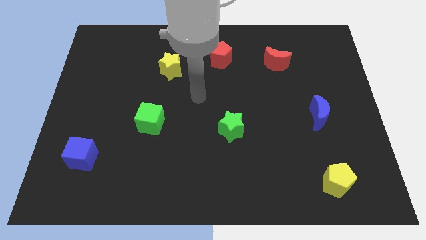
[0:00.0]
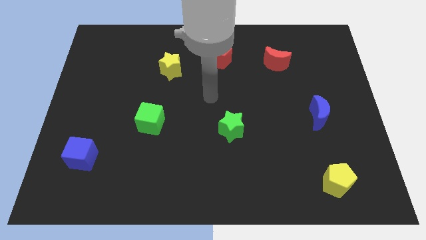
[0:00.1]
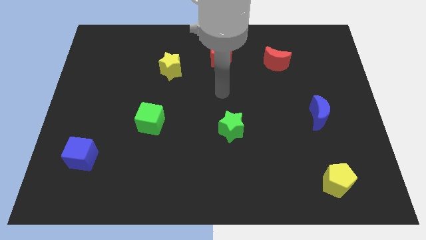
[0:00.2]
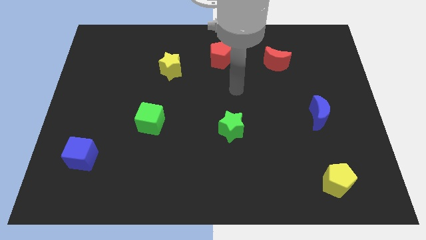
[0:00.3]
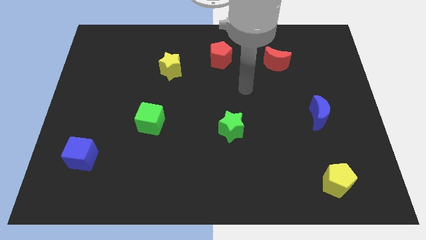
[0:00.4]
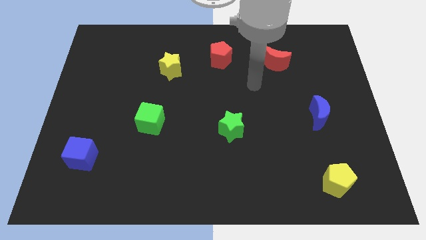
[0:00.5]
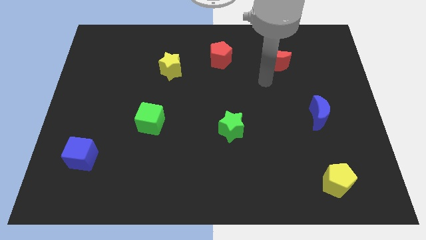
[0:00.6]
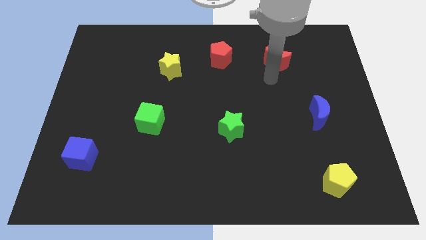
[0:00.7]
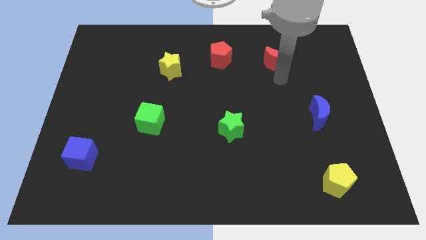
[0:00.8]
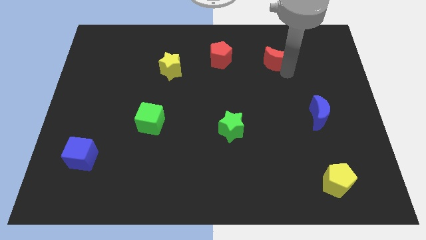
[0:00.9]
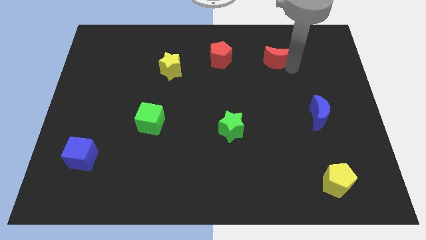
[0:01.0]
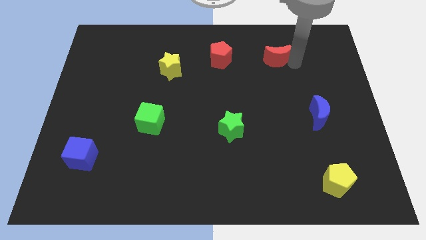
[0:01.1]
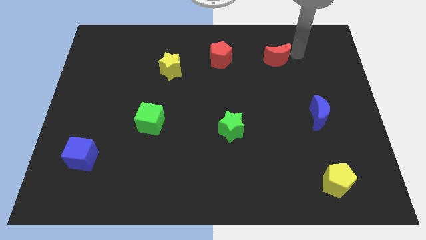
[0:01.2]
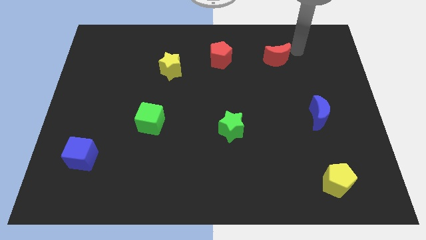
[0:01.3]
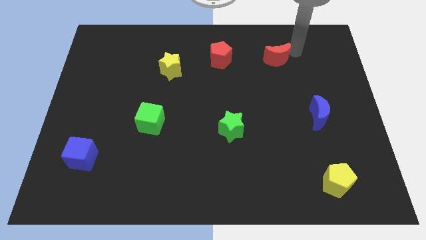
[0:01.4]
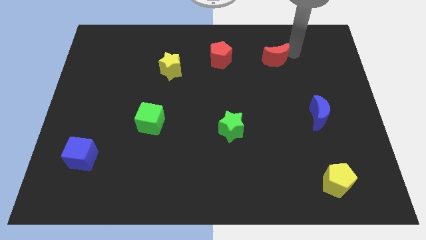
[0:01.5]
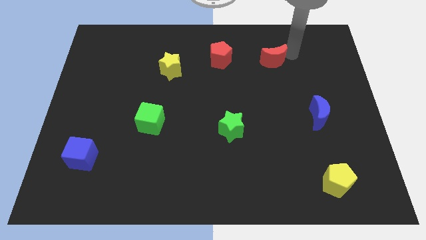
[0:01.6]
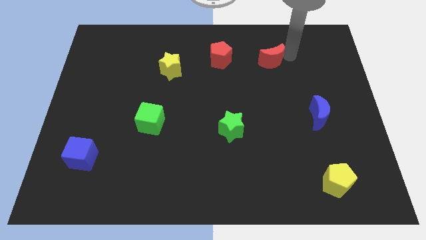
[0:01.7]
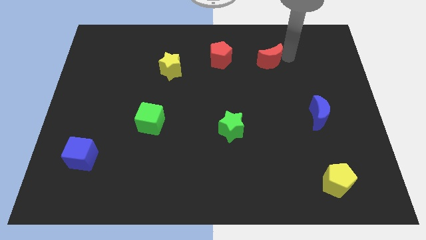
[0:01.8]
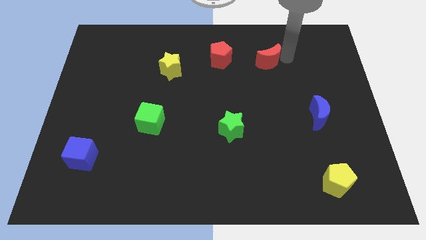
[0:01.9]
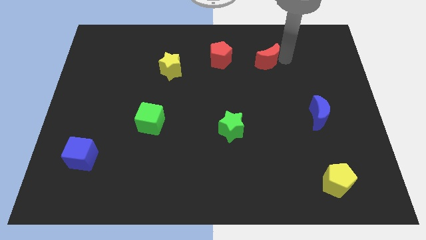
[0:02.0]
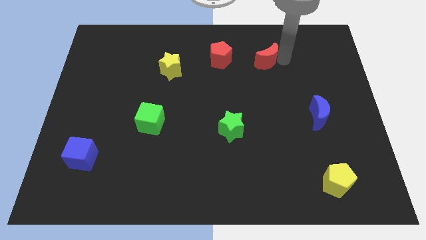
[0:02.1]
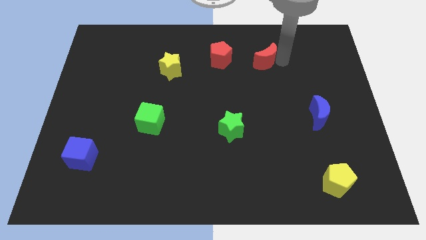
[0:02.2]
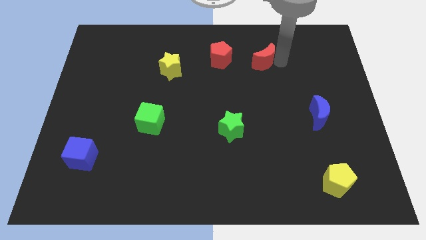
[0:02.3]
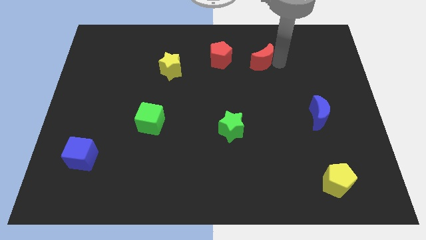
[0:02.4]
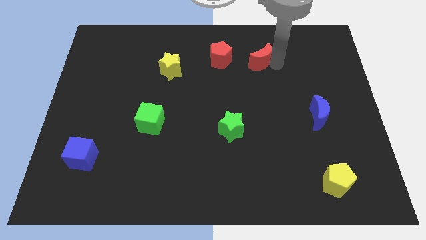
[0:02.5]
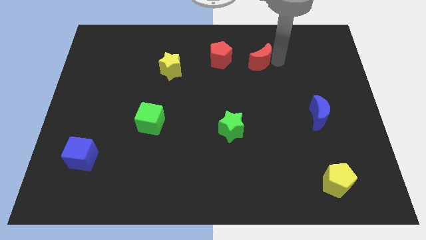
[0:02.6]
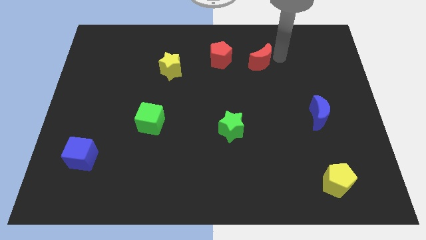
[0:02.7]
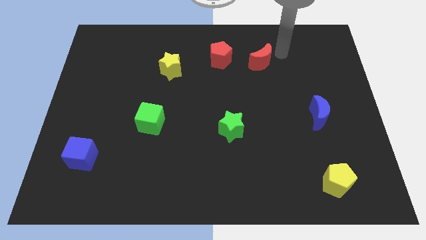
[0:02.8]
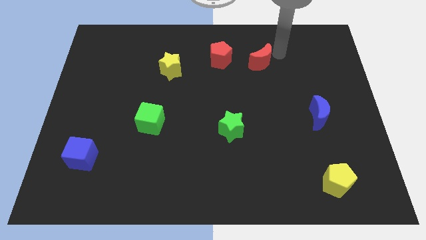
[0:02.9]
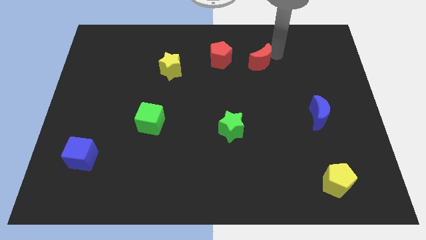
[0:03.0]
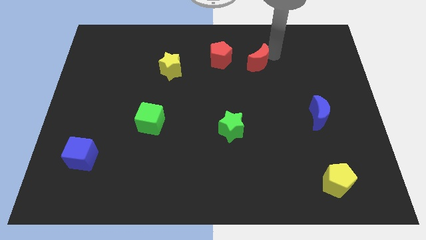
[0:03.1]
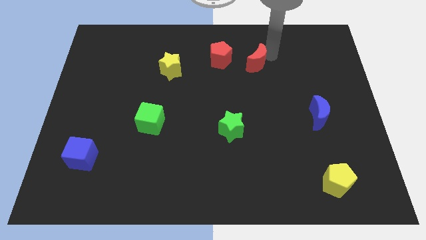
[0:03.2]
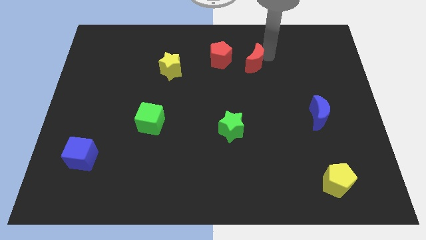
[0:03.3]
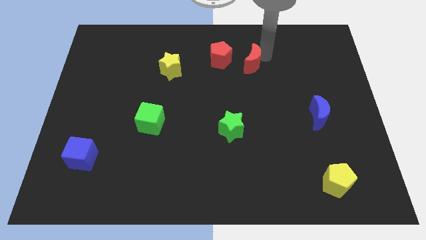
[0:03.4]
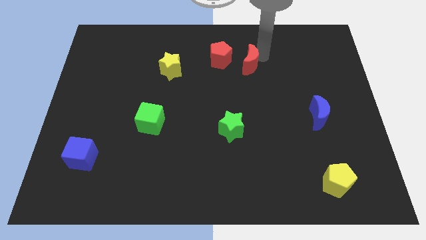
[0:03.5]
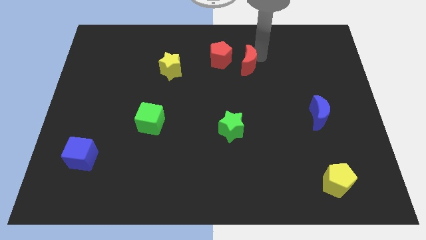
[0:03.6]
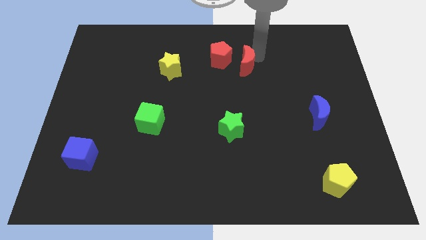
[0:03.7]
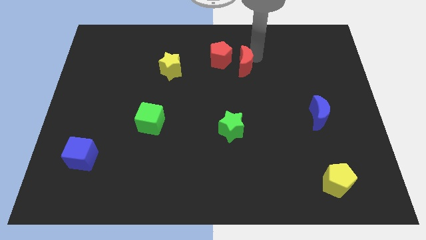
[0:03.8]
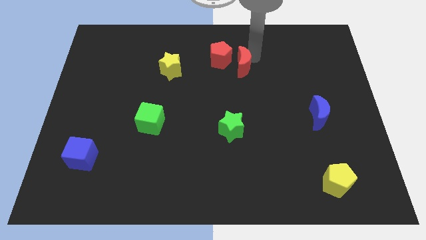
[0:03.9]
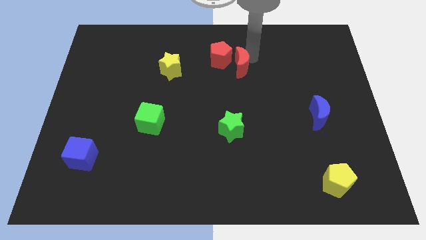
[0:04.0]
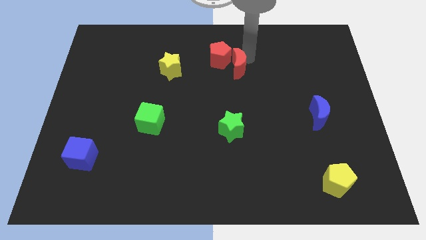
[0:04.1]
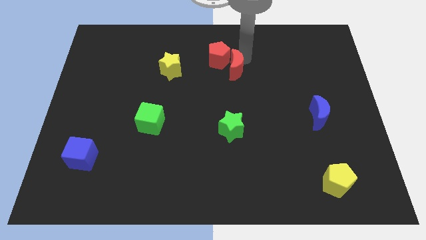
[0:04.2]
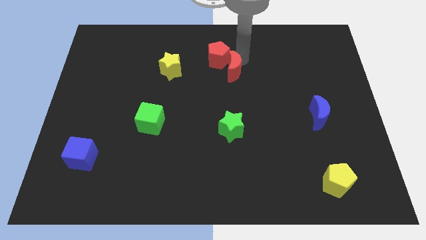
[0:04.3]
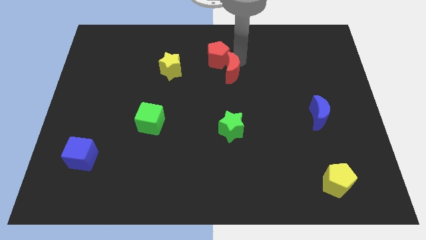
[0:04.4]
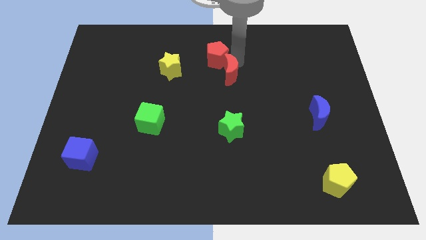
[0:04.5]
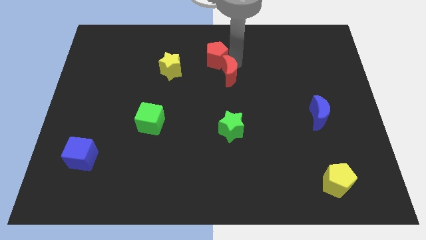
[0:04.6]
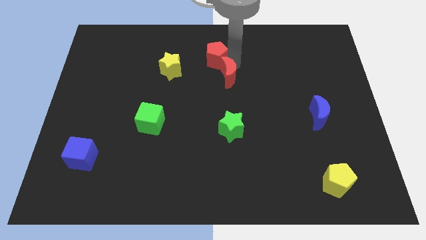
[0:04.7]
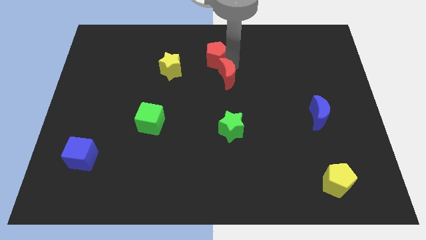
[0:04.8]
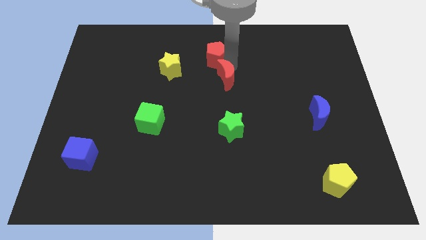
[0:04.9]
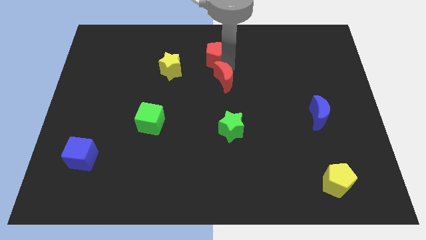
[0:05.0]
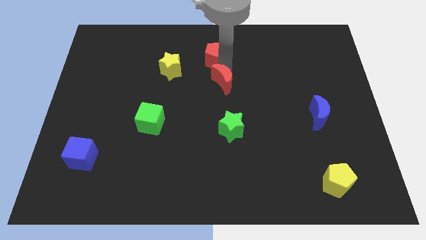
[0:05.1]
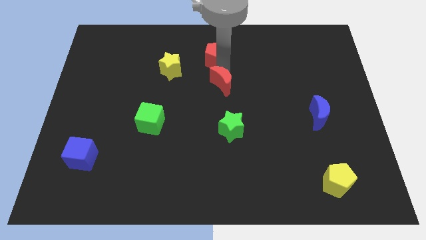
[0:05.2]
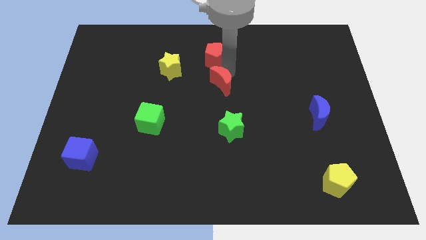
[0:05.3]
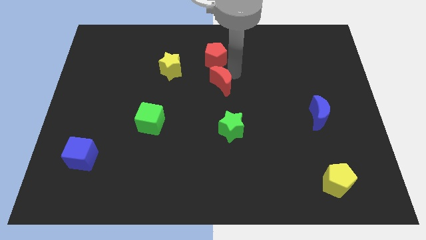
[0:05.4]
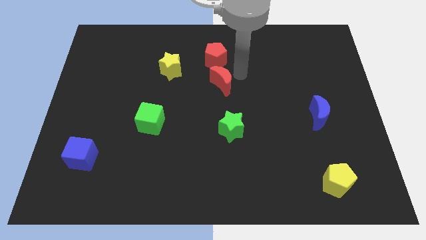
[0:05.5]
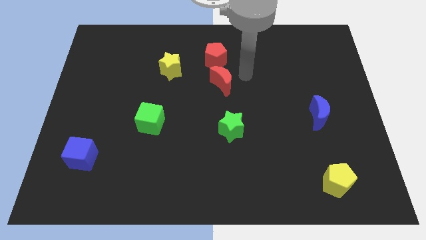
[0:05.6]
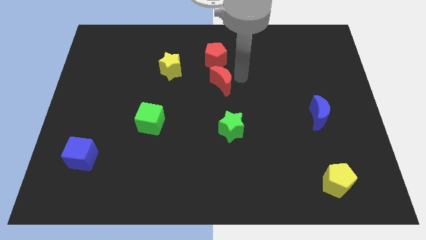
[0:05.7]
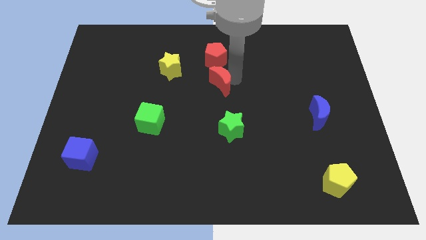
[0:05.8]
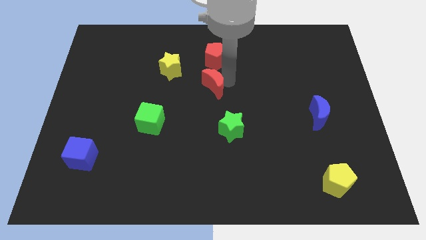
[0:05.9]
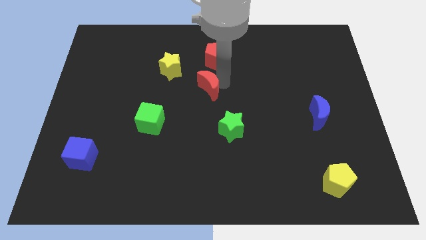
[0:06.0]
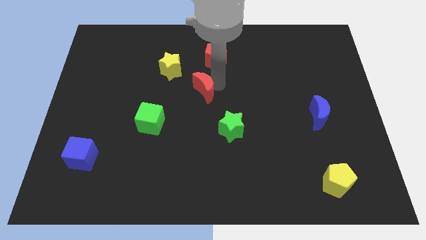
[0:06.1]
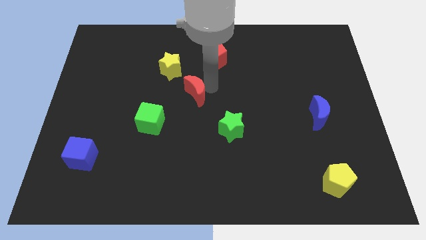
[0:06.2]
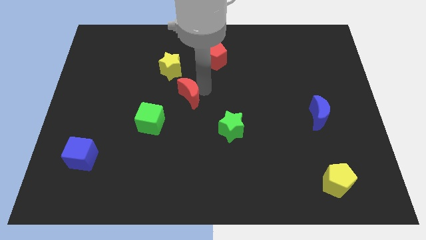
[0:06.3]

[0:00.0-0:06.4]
move the red moon diagonally up and to the right of the green cube

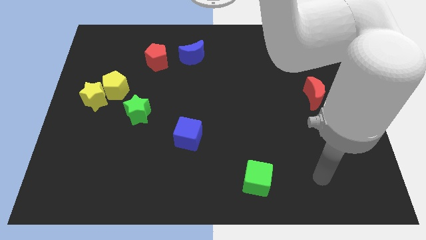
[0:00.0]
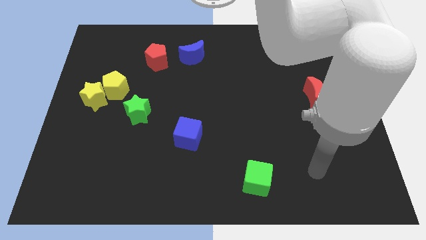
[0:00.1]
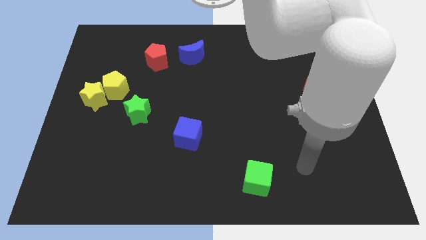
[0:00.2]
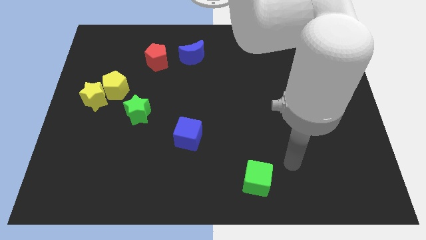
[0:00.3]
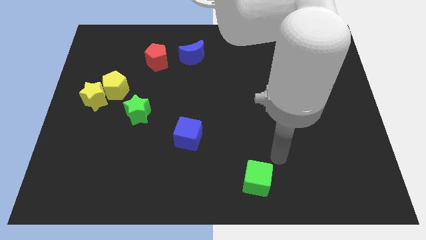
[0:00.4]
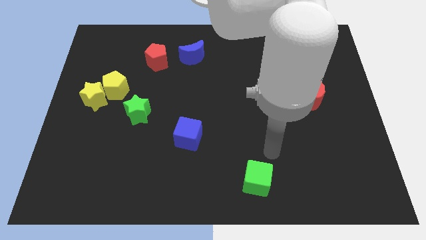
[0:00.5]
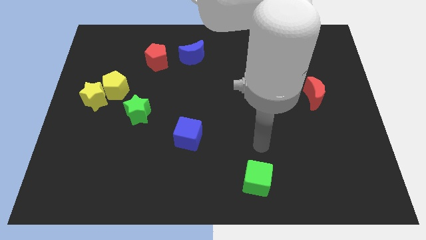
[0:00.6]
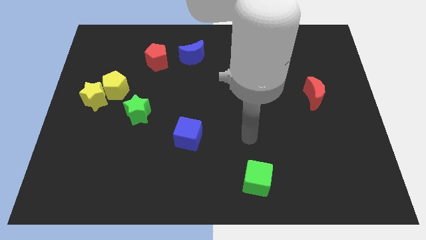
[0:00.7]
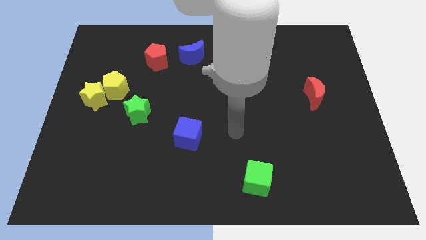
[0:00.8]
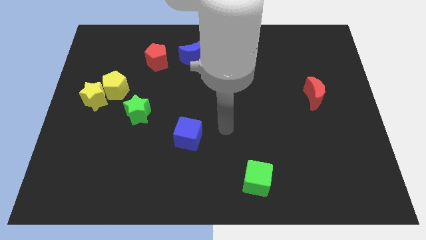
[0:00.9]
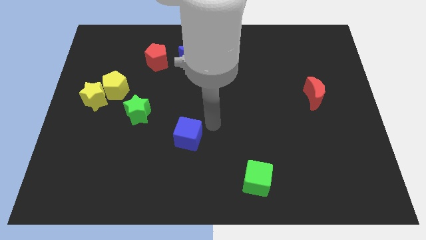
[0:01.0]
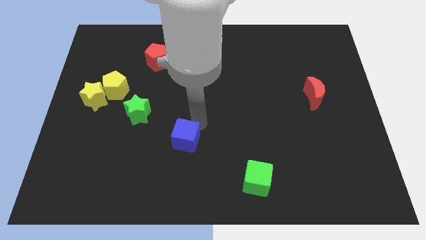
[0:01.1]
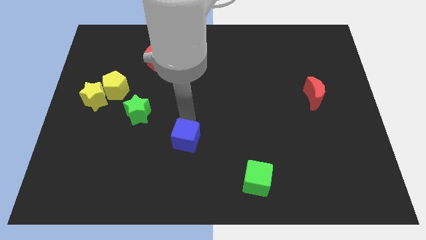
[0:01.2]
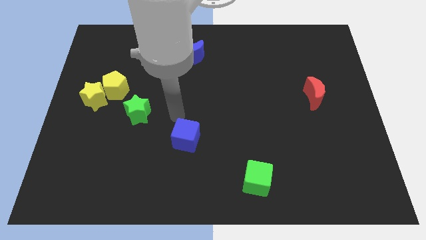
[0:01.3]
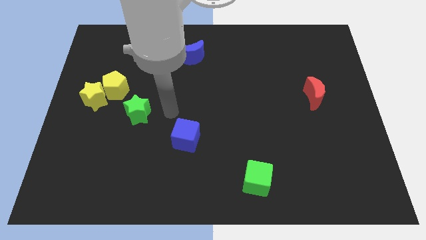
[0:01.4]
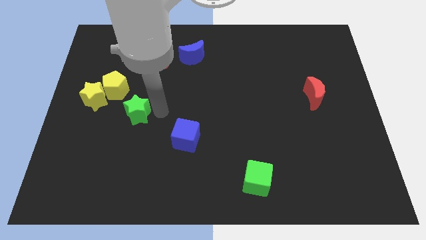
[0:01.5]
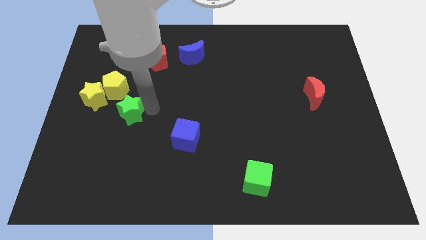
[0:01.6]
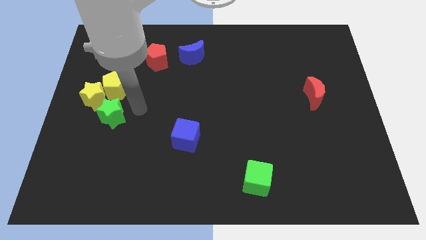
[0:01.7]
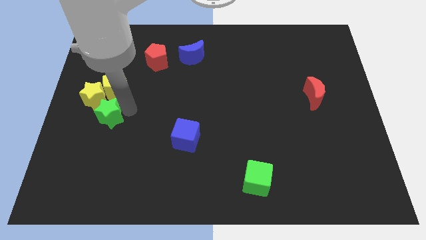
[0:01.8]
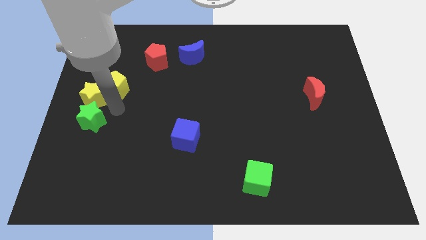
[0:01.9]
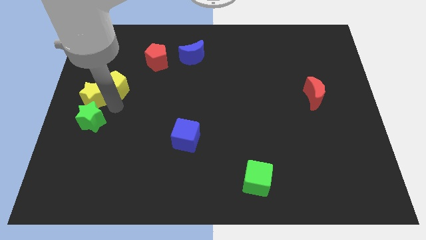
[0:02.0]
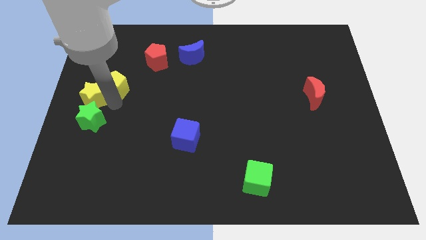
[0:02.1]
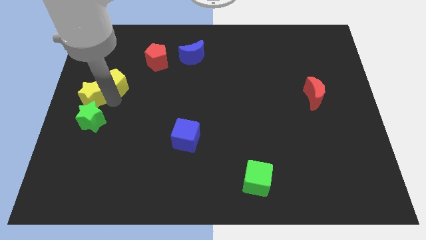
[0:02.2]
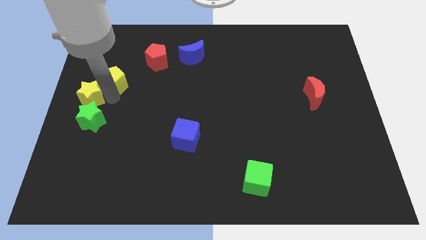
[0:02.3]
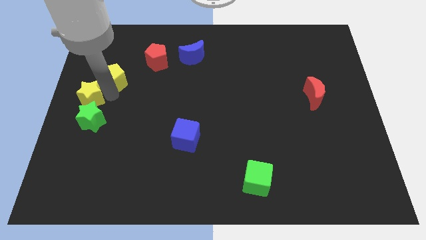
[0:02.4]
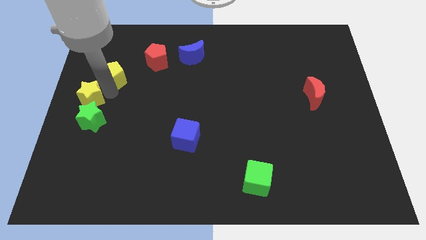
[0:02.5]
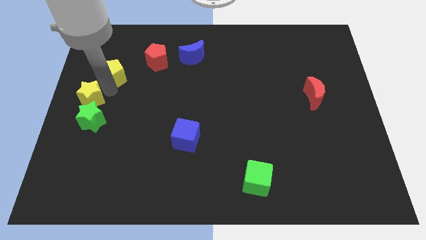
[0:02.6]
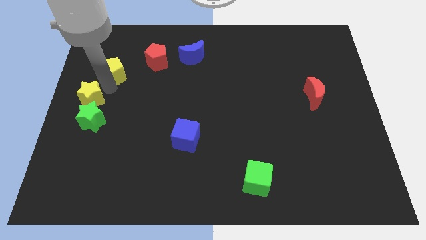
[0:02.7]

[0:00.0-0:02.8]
put the yellow pentagon to the left of the red pentagon
